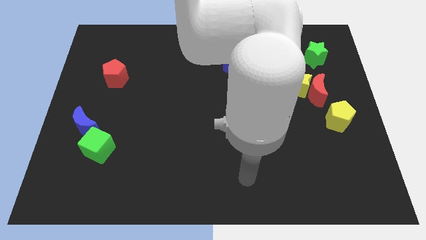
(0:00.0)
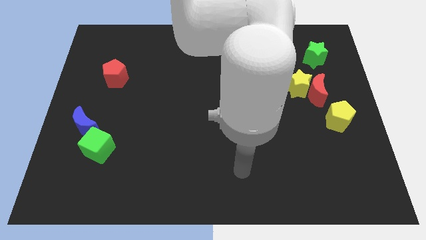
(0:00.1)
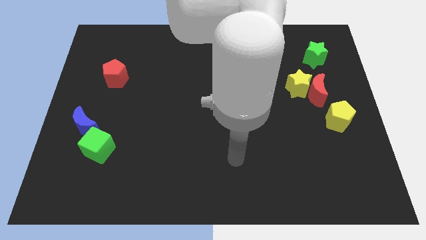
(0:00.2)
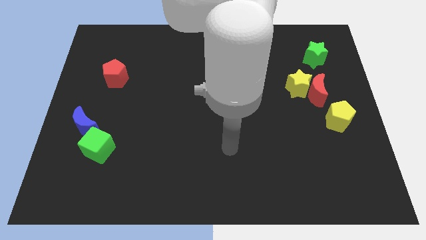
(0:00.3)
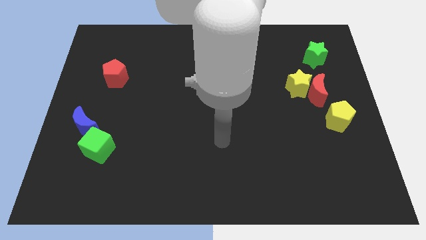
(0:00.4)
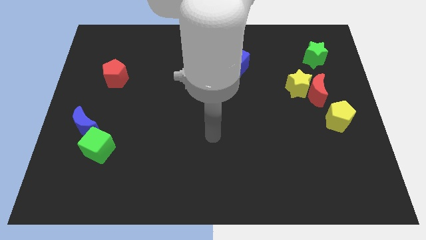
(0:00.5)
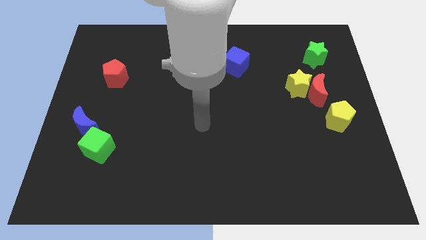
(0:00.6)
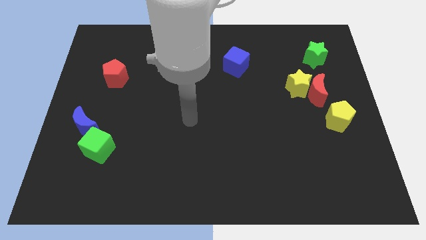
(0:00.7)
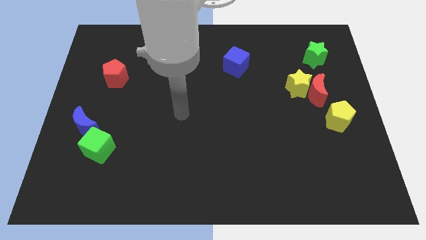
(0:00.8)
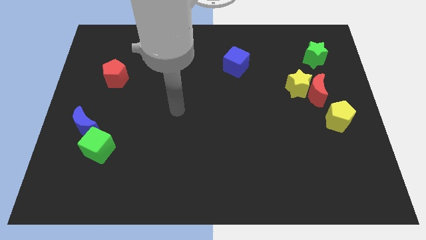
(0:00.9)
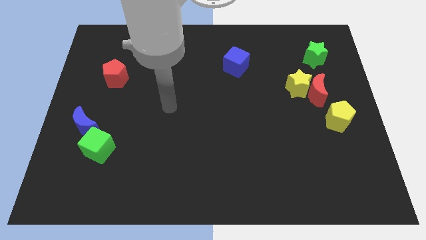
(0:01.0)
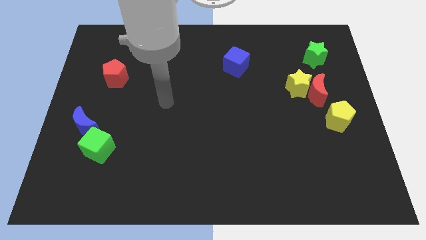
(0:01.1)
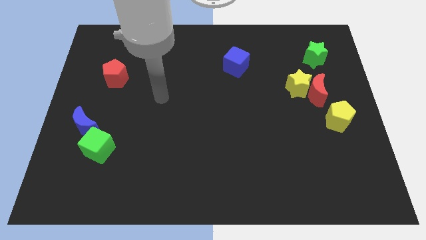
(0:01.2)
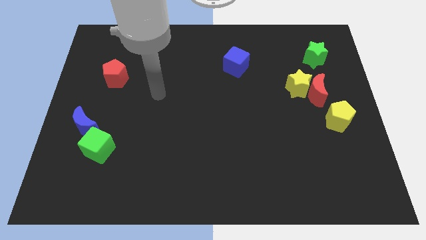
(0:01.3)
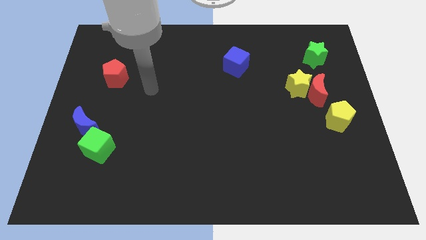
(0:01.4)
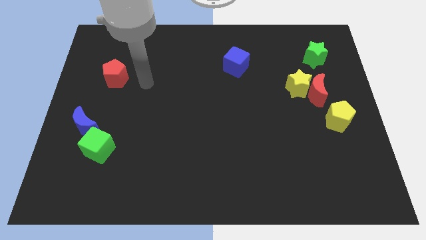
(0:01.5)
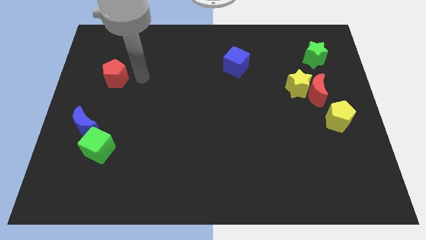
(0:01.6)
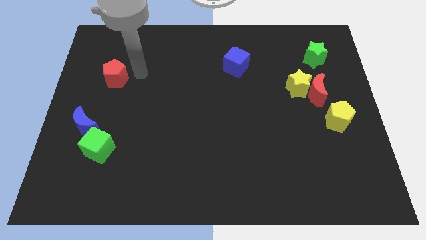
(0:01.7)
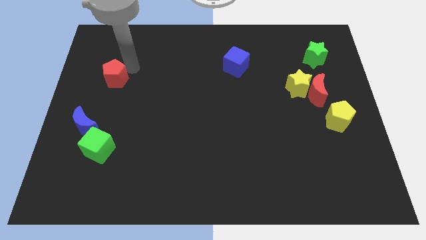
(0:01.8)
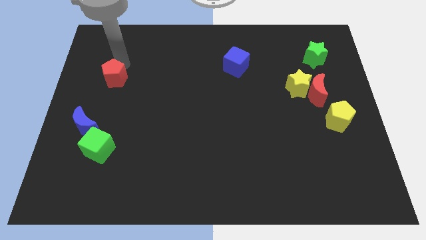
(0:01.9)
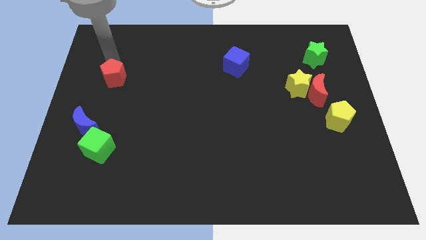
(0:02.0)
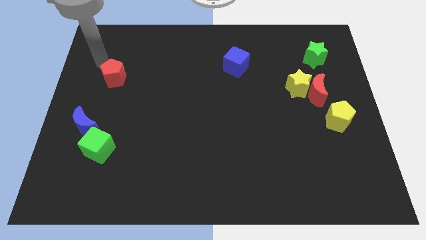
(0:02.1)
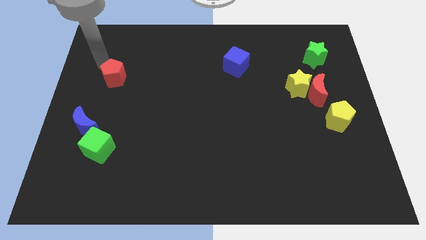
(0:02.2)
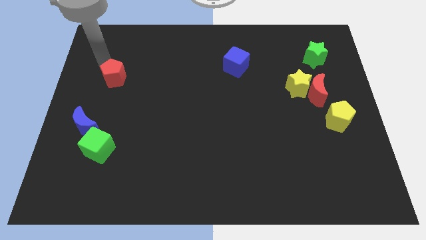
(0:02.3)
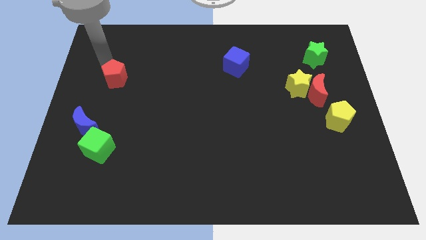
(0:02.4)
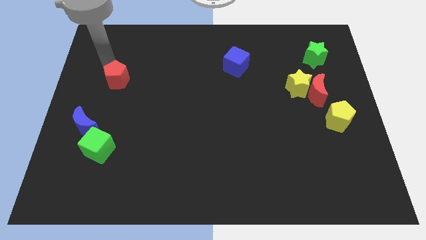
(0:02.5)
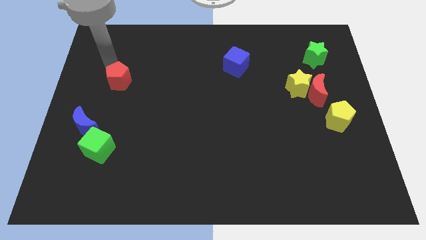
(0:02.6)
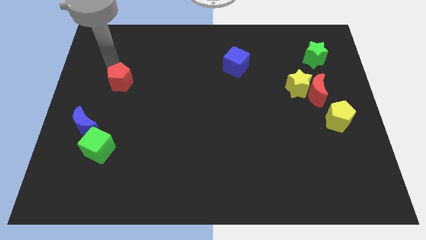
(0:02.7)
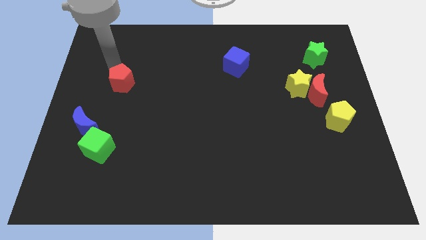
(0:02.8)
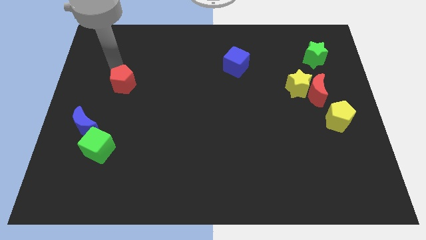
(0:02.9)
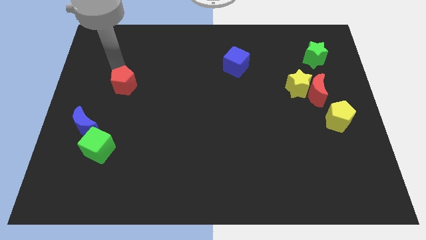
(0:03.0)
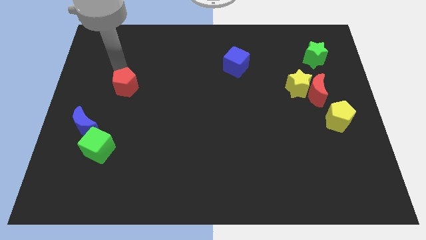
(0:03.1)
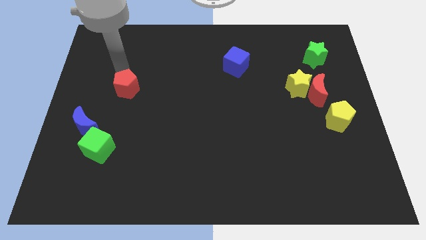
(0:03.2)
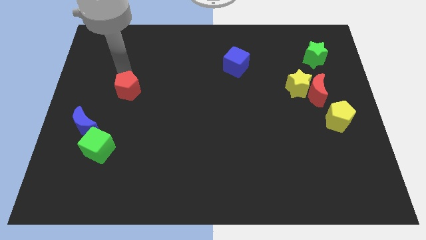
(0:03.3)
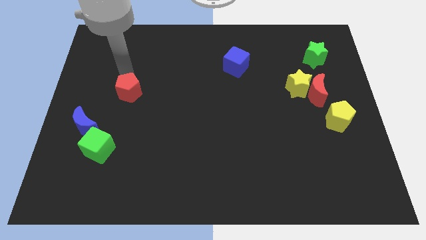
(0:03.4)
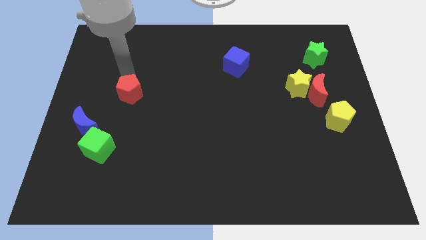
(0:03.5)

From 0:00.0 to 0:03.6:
move the red pentagon somewhat downwards and to the right diagonally

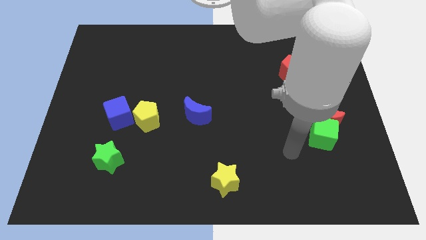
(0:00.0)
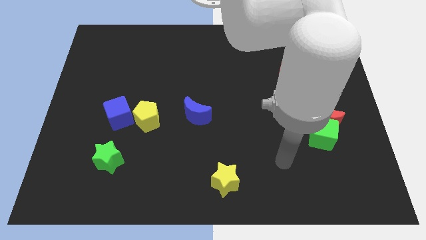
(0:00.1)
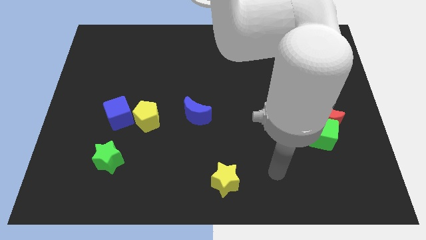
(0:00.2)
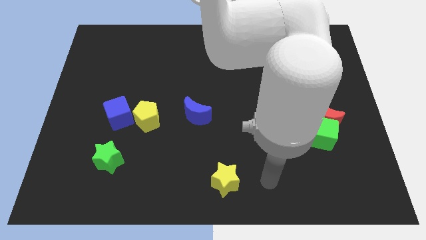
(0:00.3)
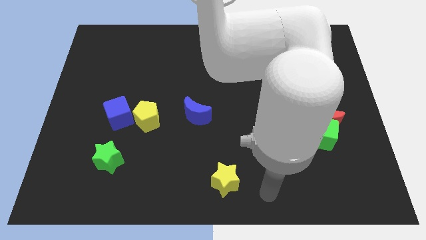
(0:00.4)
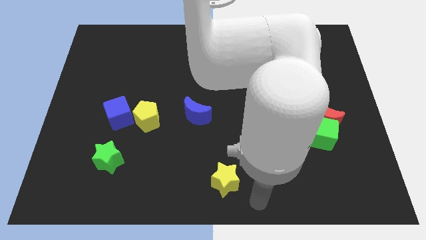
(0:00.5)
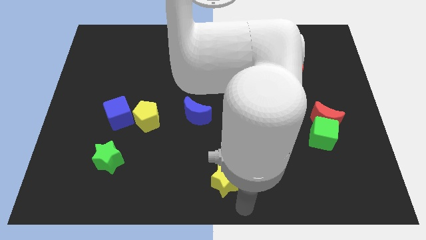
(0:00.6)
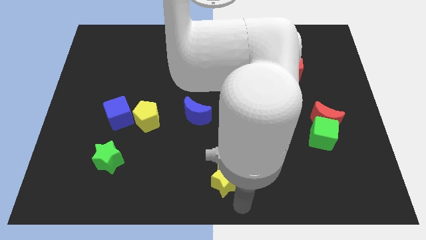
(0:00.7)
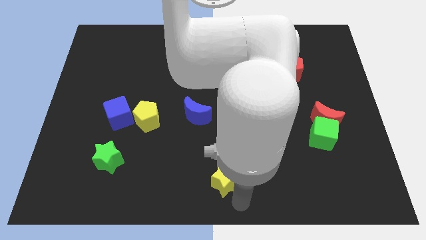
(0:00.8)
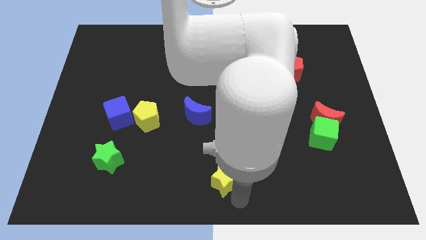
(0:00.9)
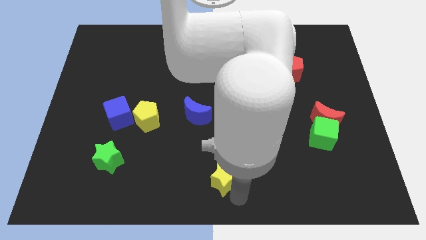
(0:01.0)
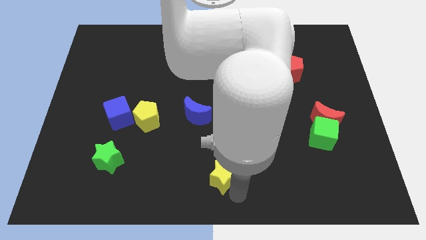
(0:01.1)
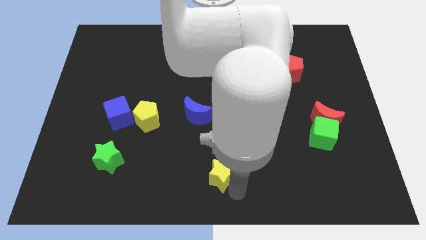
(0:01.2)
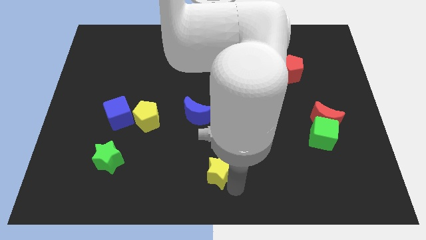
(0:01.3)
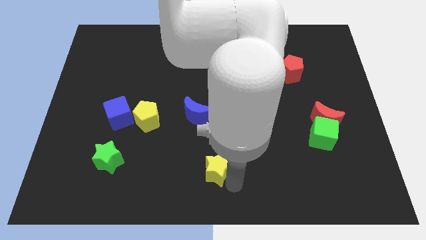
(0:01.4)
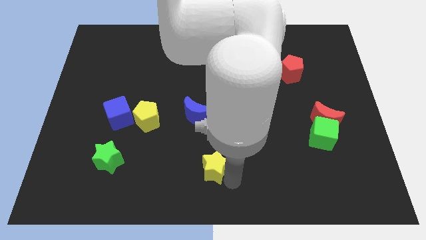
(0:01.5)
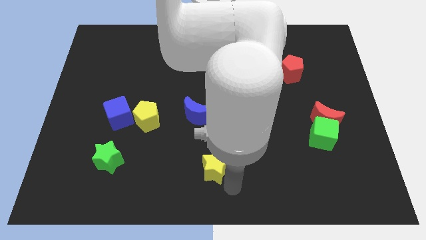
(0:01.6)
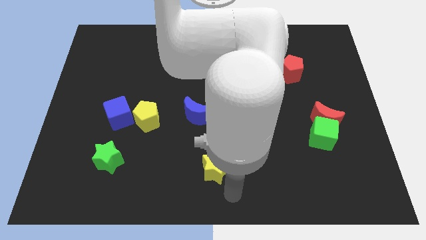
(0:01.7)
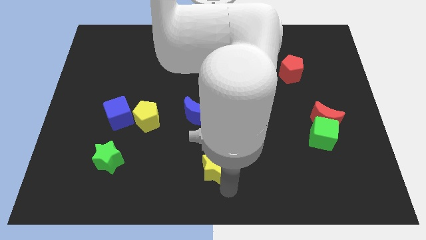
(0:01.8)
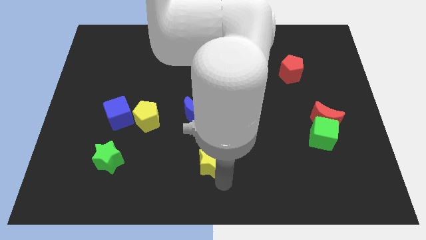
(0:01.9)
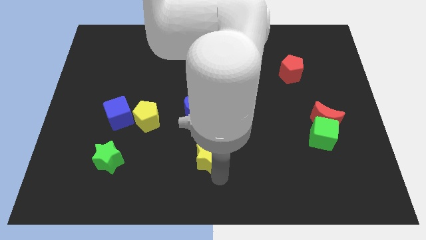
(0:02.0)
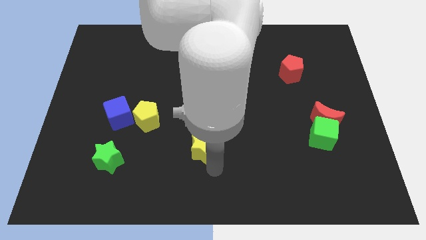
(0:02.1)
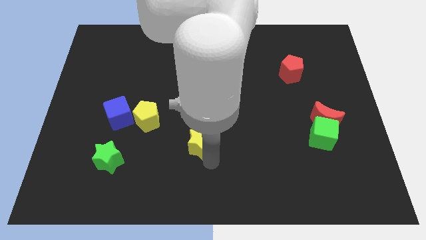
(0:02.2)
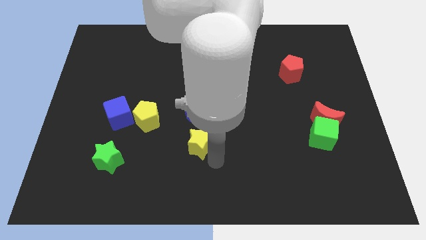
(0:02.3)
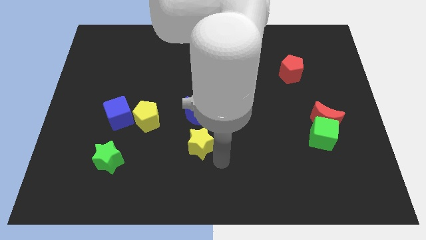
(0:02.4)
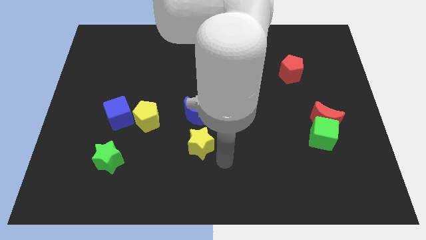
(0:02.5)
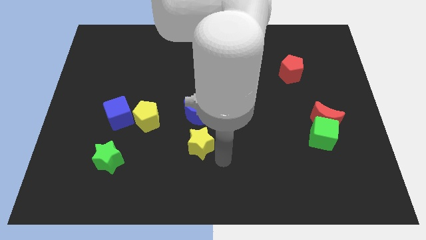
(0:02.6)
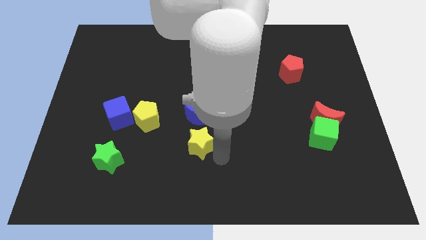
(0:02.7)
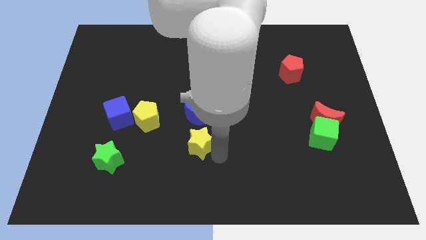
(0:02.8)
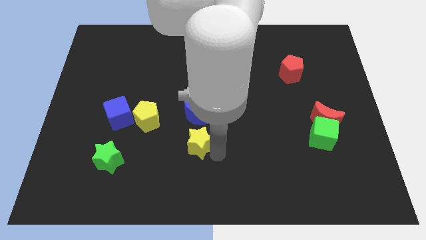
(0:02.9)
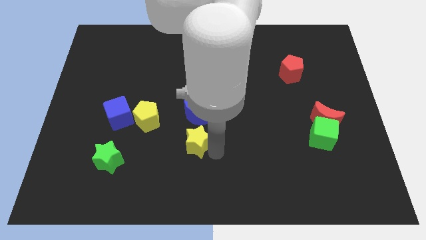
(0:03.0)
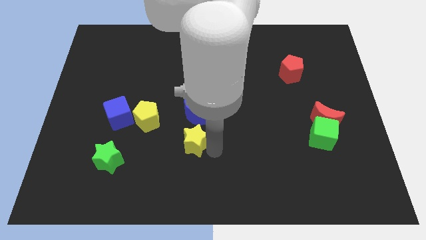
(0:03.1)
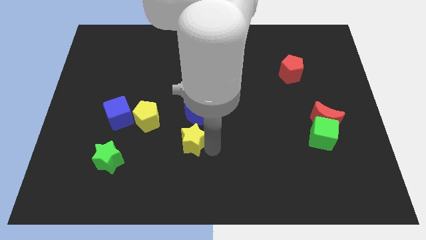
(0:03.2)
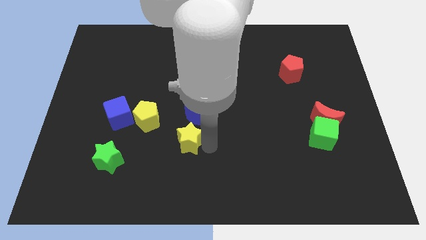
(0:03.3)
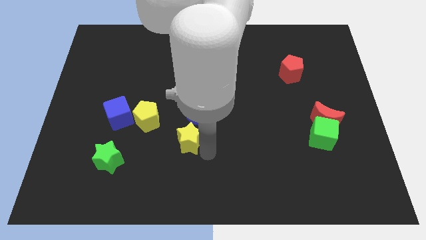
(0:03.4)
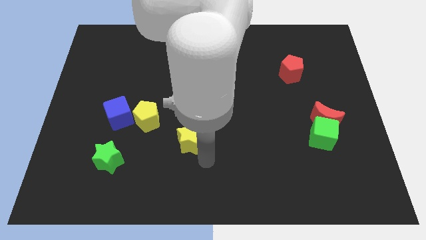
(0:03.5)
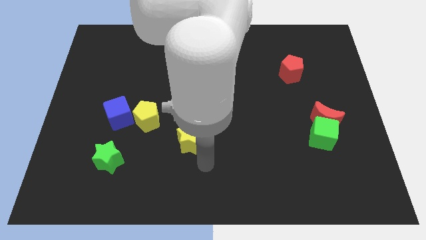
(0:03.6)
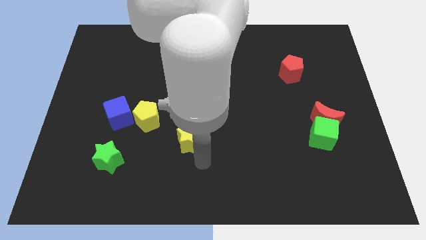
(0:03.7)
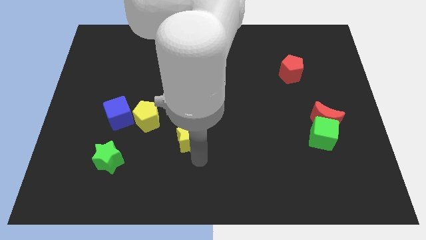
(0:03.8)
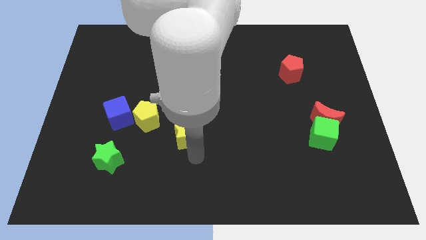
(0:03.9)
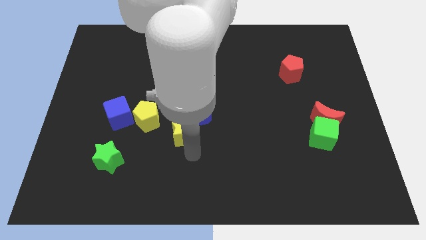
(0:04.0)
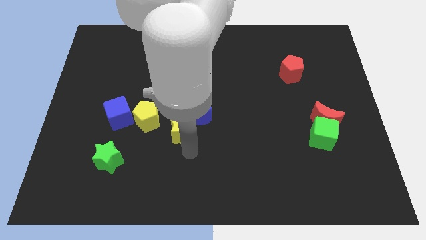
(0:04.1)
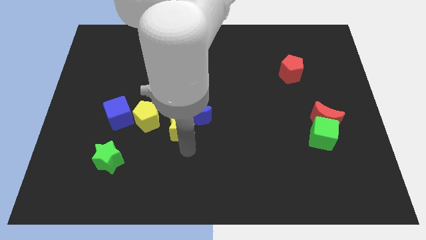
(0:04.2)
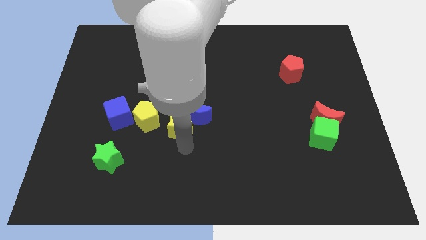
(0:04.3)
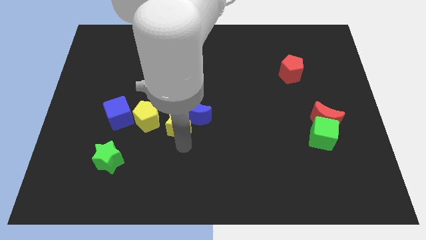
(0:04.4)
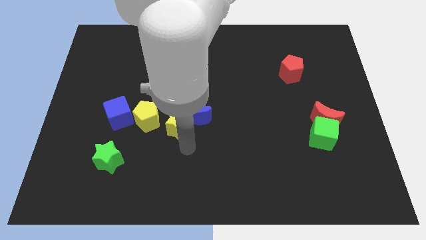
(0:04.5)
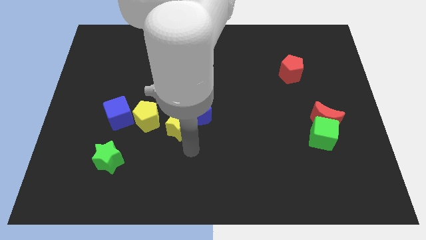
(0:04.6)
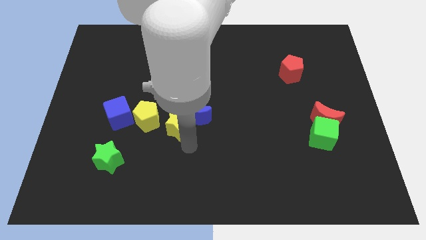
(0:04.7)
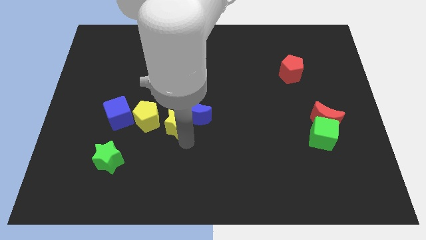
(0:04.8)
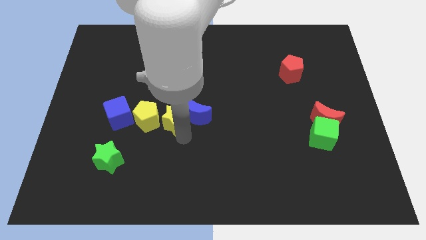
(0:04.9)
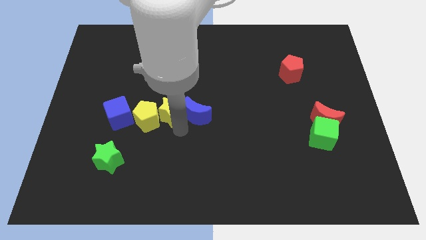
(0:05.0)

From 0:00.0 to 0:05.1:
push the yellow star up and to the left diagonally
